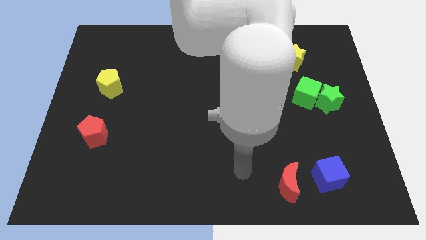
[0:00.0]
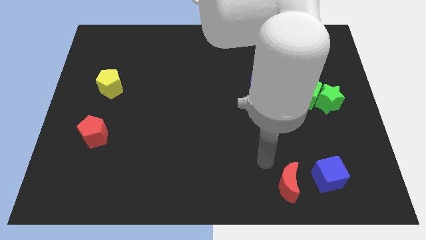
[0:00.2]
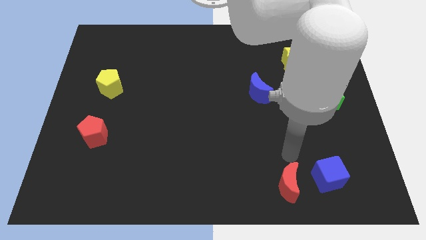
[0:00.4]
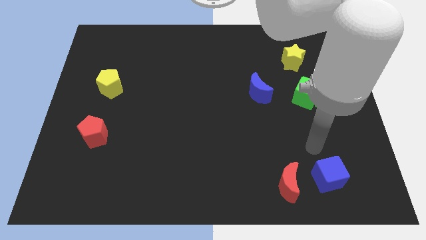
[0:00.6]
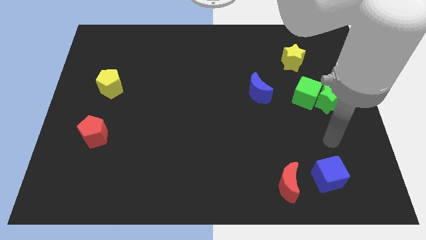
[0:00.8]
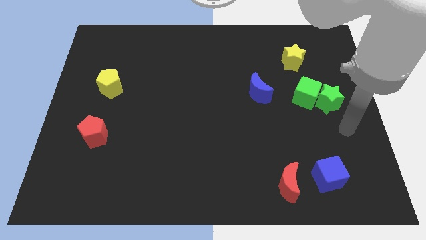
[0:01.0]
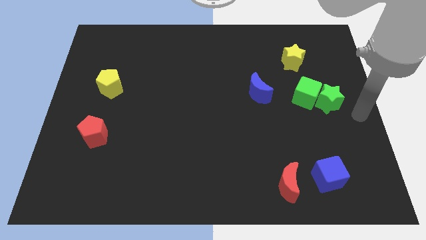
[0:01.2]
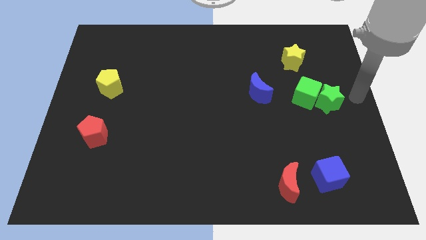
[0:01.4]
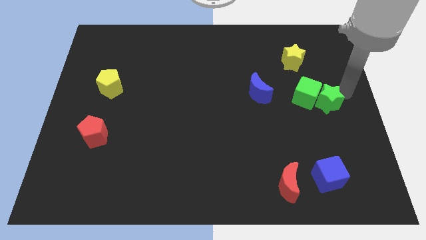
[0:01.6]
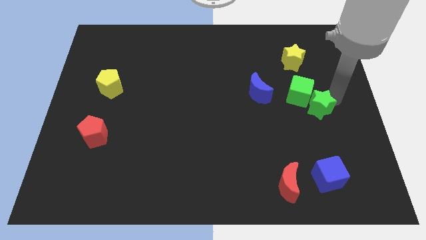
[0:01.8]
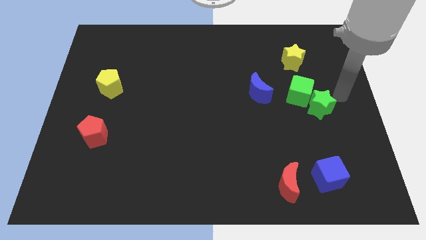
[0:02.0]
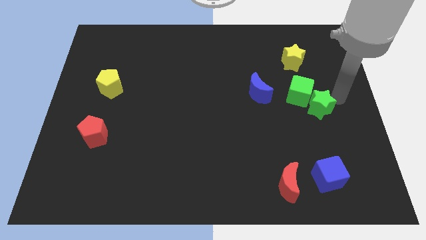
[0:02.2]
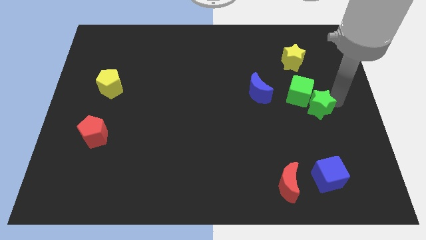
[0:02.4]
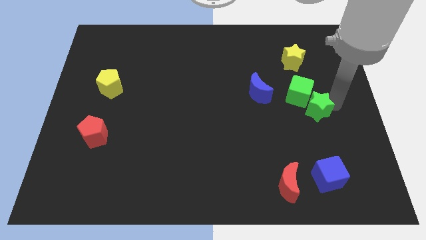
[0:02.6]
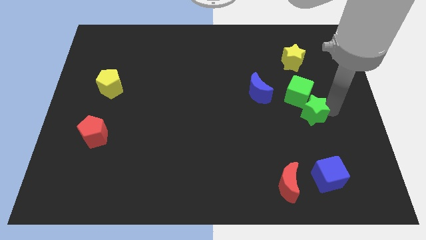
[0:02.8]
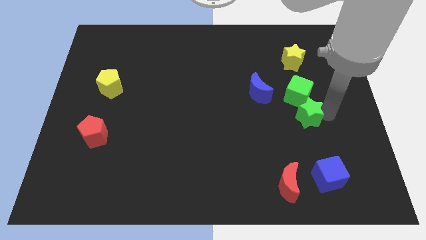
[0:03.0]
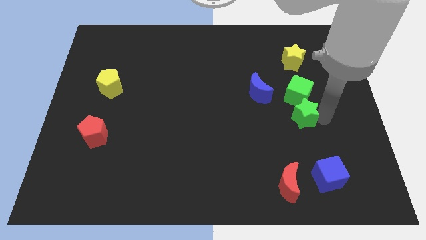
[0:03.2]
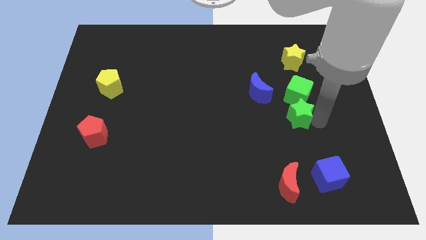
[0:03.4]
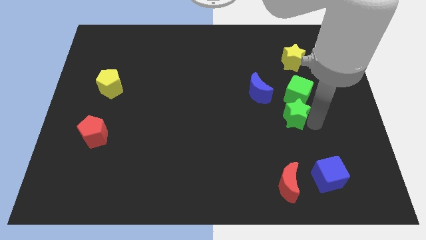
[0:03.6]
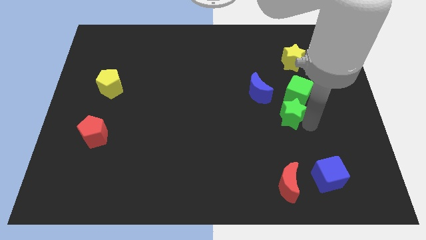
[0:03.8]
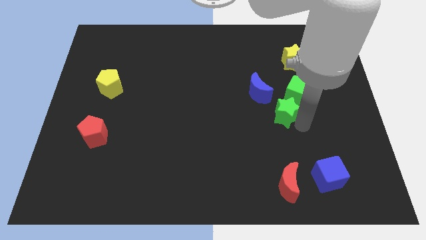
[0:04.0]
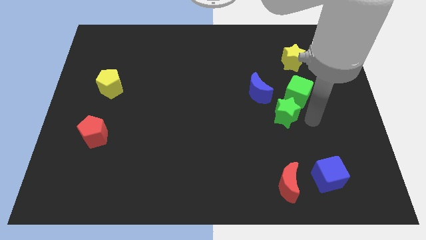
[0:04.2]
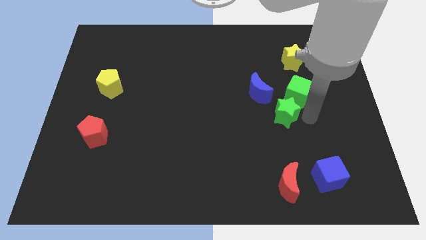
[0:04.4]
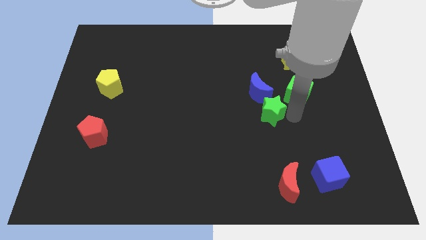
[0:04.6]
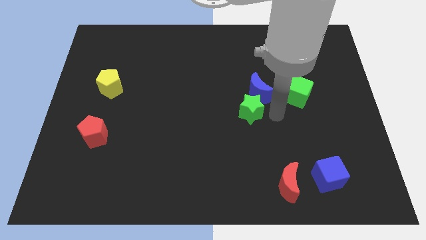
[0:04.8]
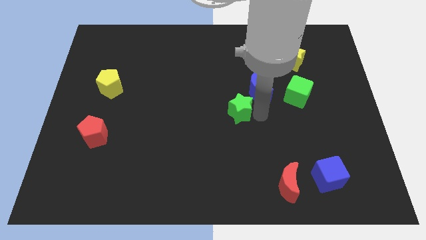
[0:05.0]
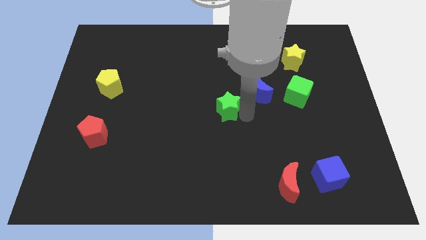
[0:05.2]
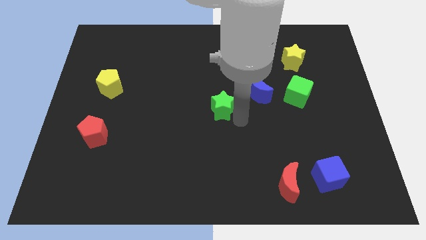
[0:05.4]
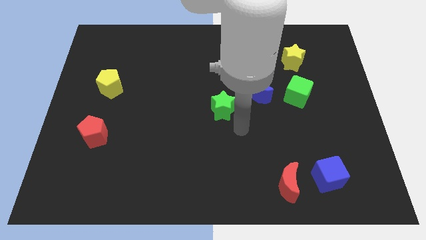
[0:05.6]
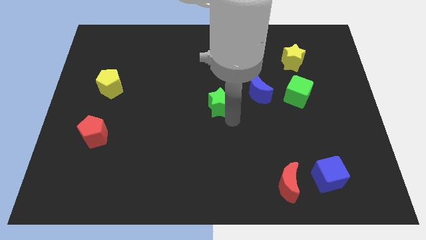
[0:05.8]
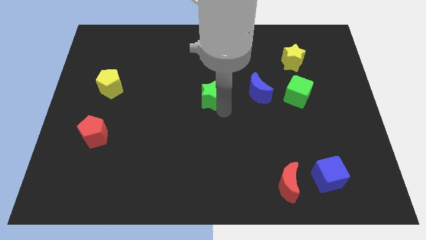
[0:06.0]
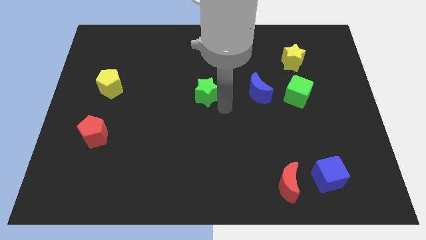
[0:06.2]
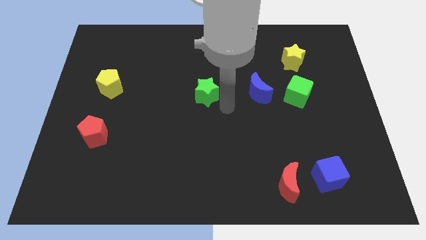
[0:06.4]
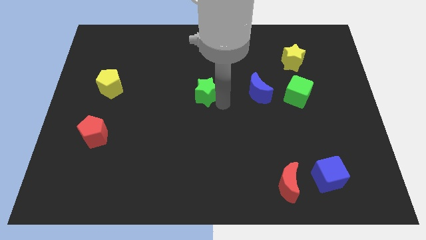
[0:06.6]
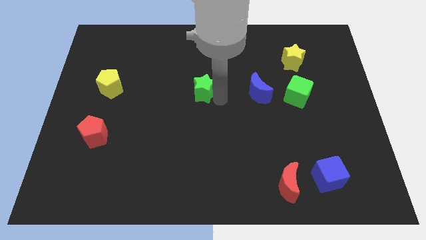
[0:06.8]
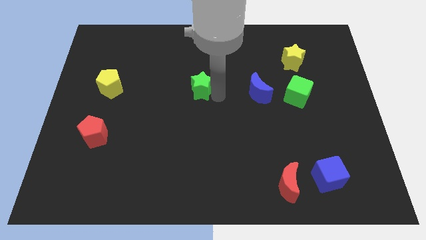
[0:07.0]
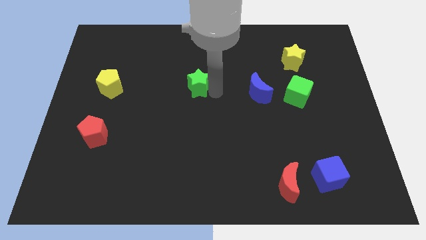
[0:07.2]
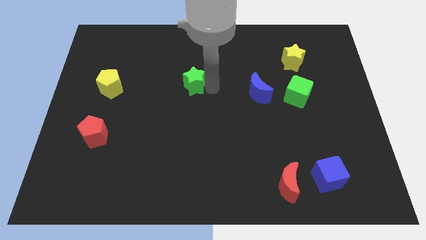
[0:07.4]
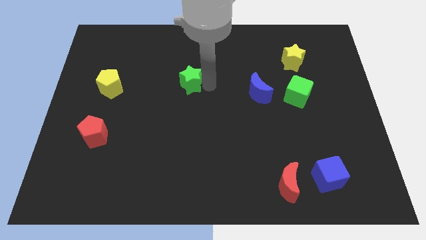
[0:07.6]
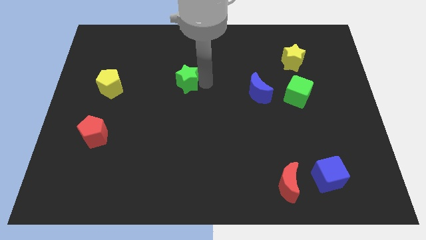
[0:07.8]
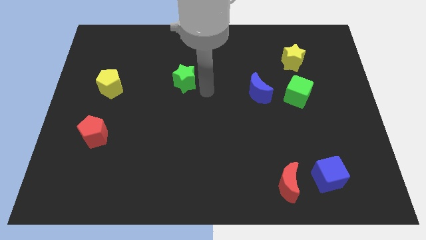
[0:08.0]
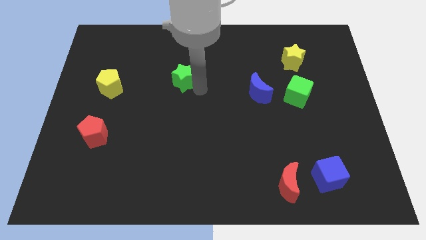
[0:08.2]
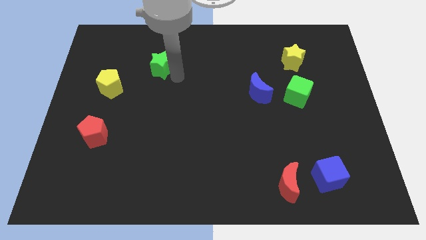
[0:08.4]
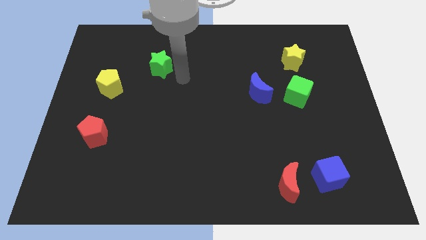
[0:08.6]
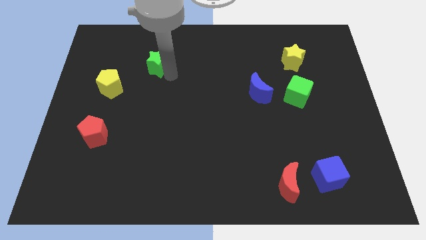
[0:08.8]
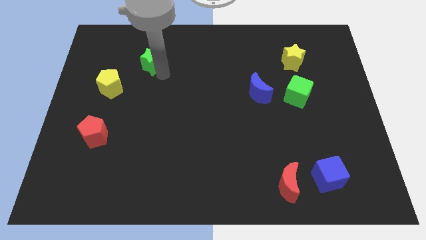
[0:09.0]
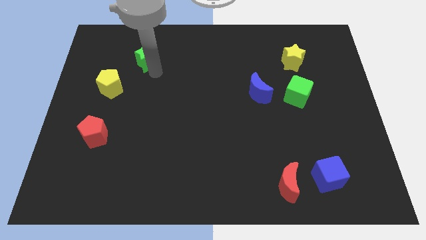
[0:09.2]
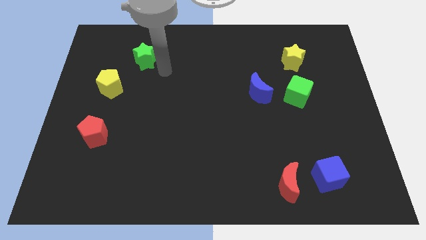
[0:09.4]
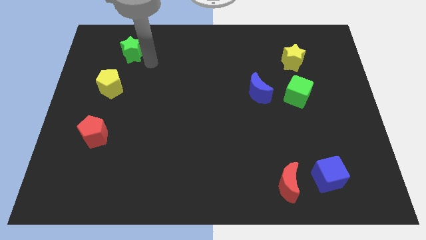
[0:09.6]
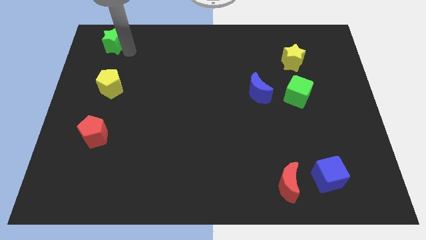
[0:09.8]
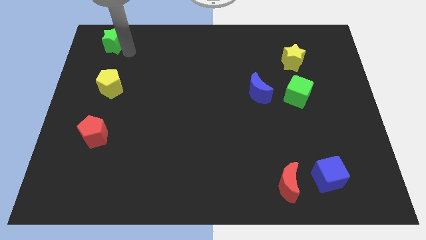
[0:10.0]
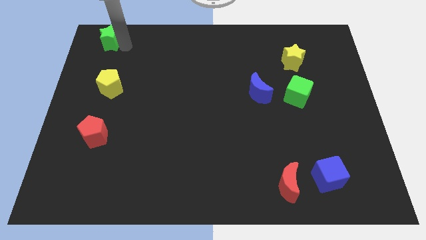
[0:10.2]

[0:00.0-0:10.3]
slide the green star to the top left of the board

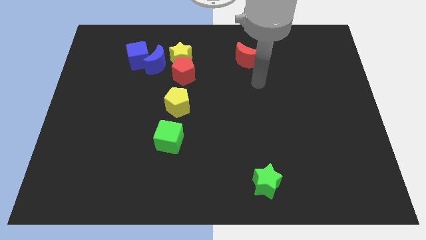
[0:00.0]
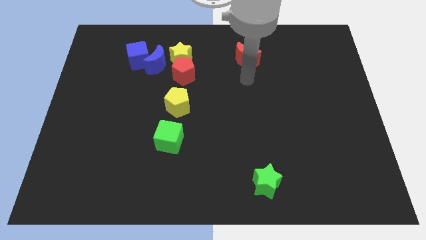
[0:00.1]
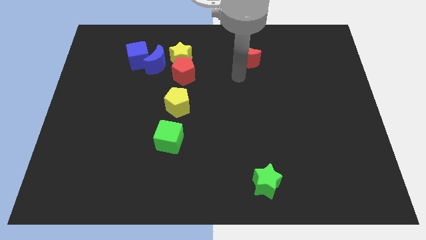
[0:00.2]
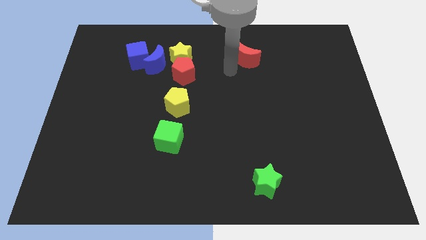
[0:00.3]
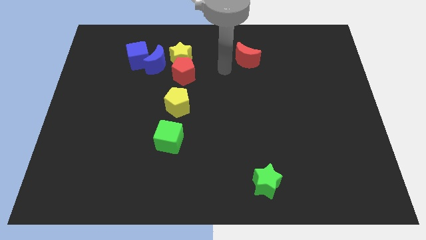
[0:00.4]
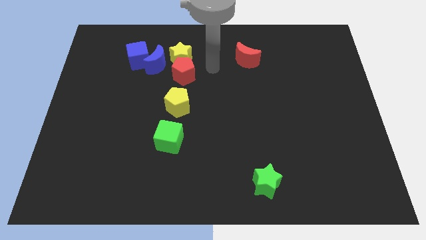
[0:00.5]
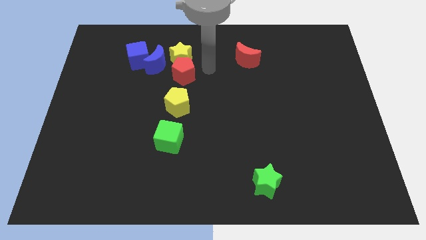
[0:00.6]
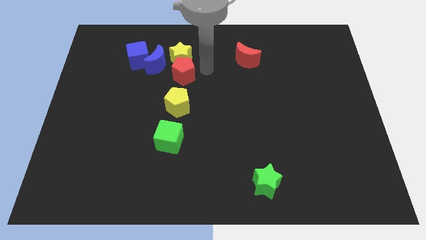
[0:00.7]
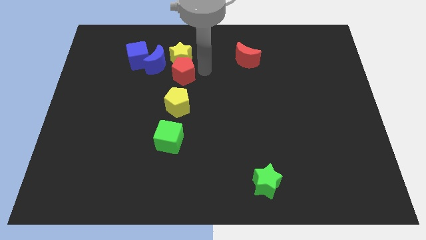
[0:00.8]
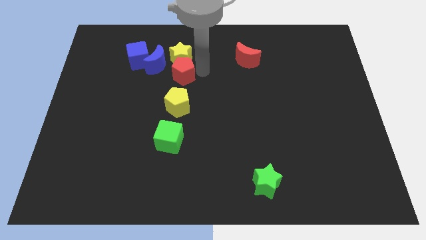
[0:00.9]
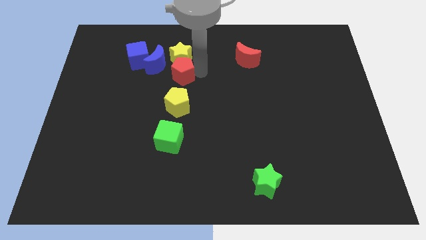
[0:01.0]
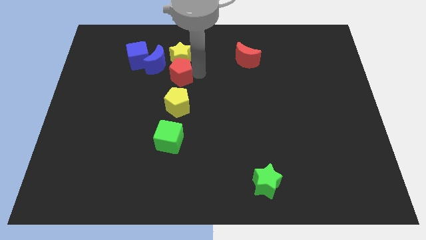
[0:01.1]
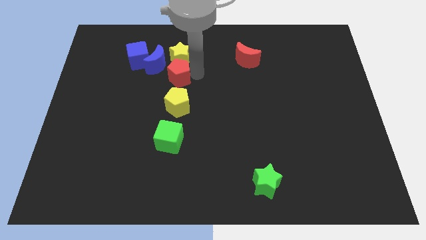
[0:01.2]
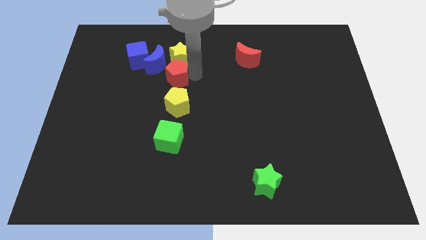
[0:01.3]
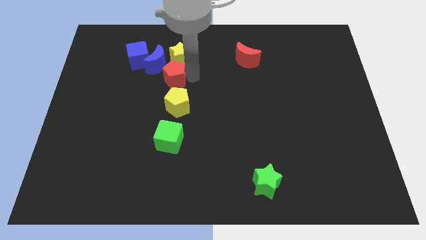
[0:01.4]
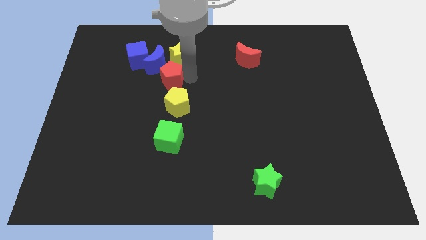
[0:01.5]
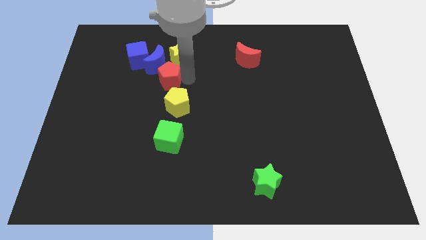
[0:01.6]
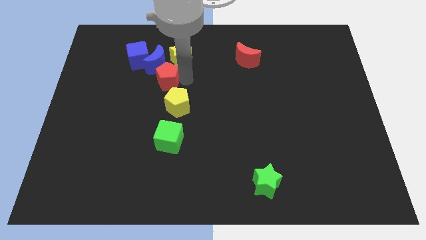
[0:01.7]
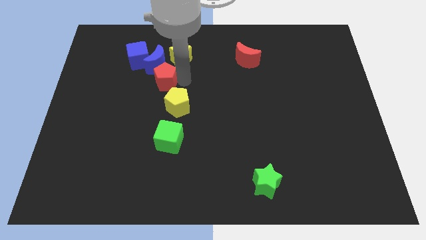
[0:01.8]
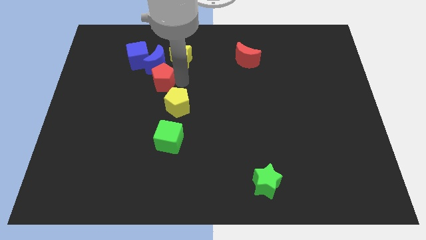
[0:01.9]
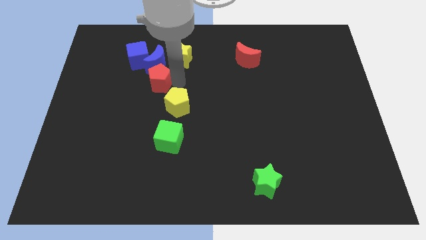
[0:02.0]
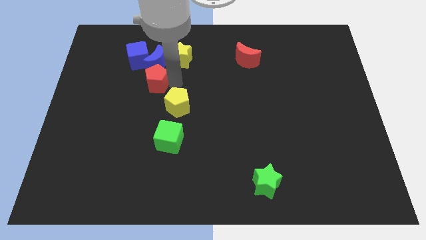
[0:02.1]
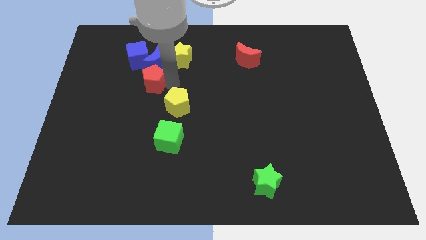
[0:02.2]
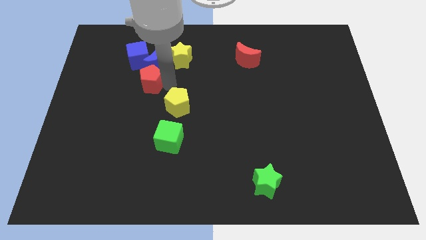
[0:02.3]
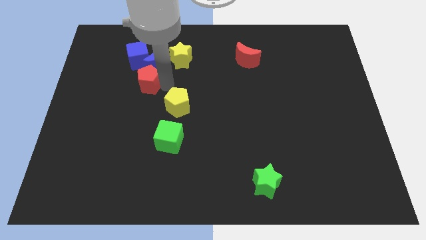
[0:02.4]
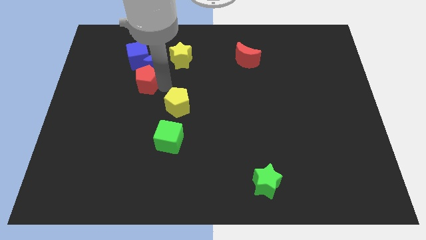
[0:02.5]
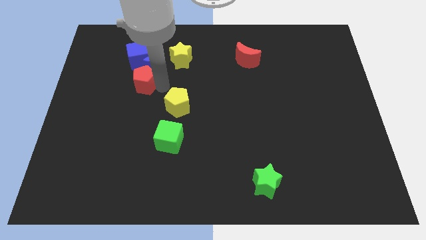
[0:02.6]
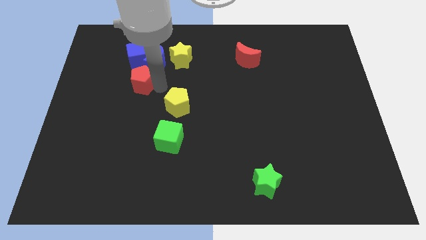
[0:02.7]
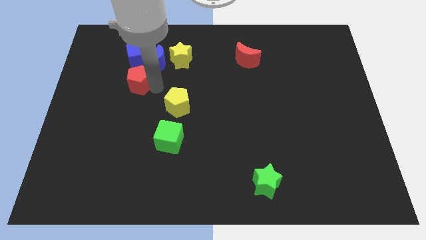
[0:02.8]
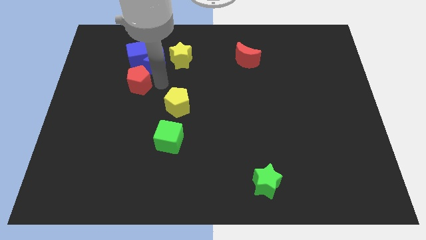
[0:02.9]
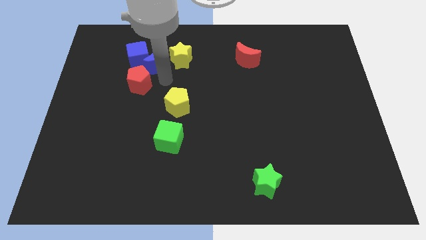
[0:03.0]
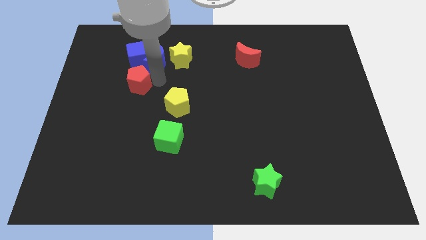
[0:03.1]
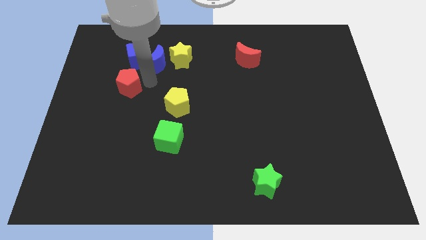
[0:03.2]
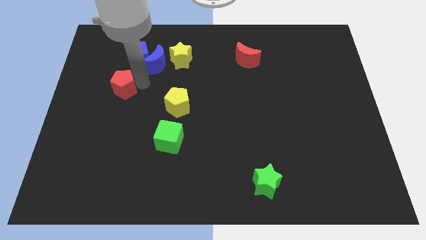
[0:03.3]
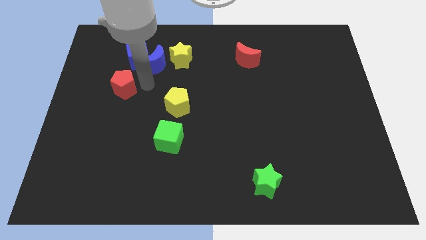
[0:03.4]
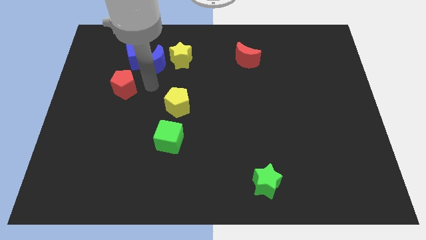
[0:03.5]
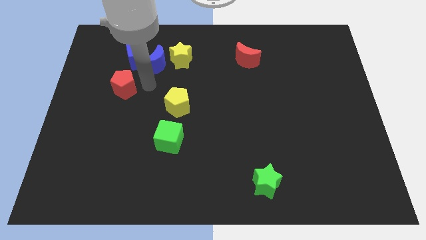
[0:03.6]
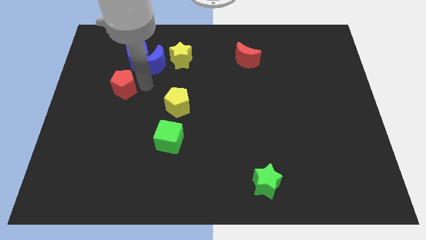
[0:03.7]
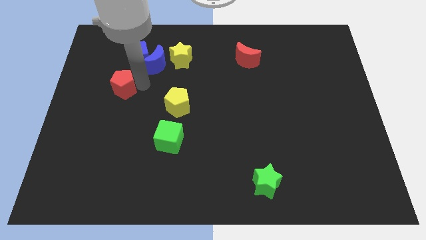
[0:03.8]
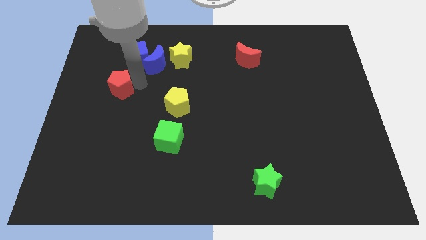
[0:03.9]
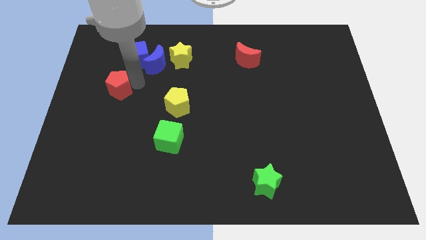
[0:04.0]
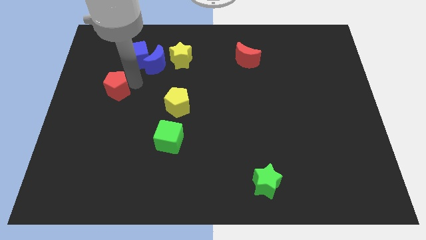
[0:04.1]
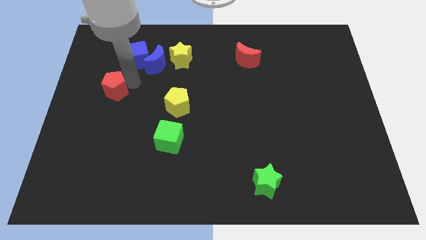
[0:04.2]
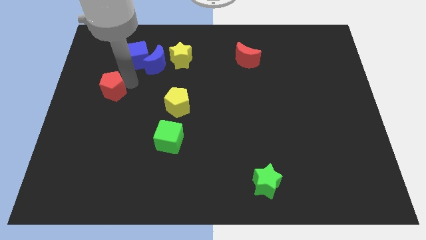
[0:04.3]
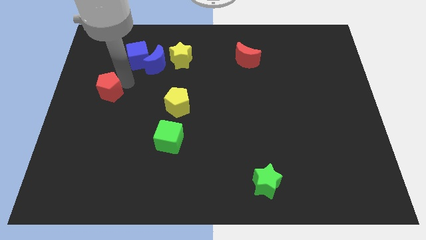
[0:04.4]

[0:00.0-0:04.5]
put the red pentagon to the left side of the board
